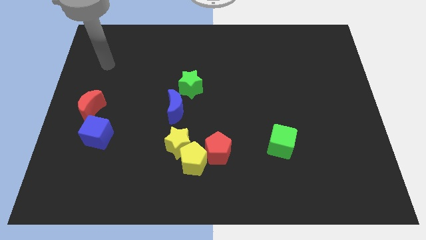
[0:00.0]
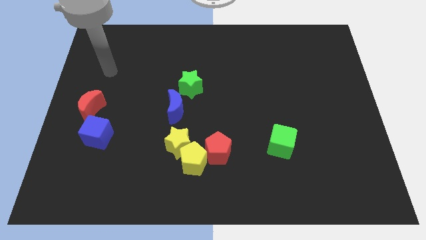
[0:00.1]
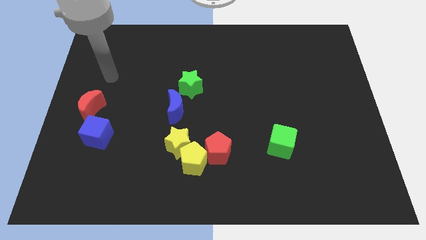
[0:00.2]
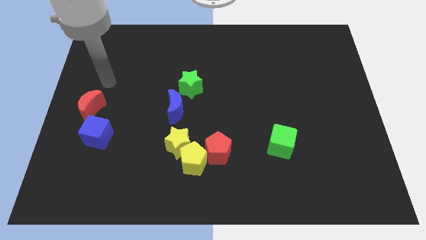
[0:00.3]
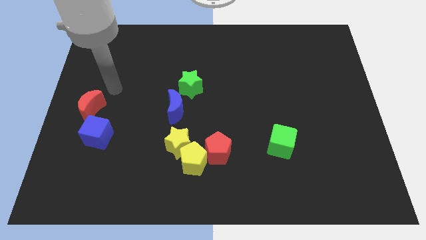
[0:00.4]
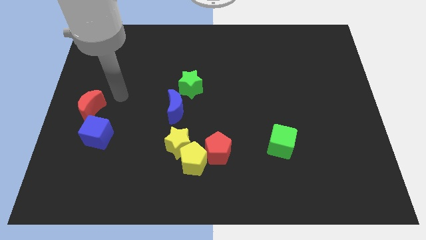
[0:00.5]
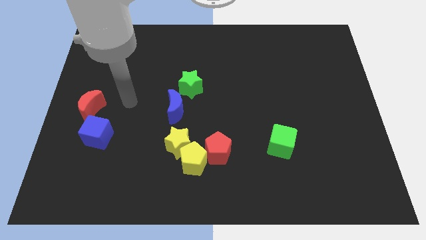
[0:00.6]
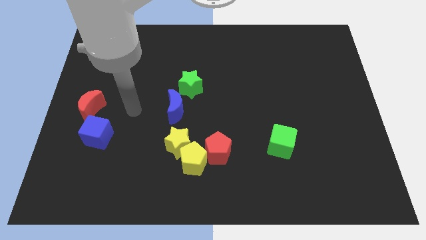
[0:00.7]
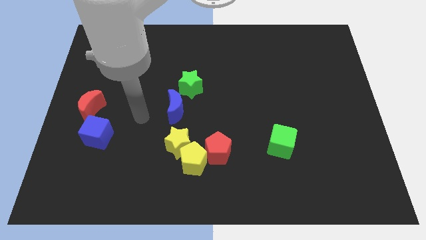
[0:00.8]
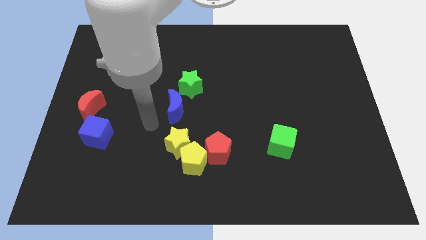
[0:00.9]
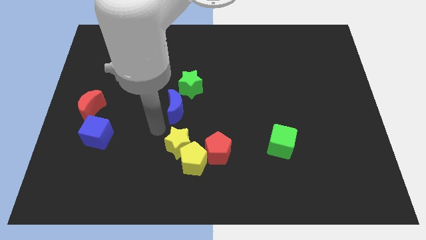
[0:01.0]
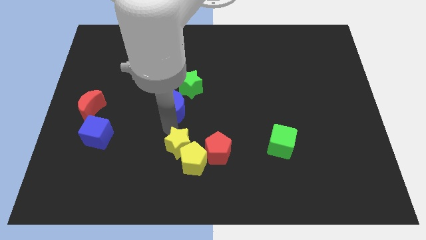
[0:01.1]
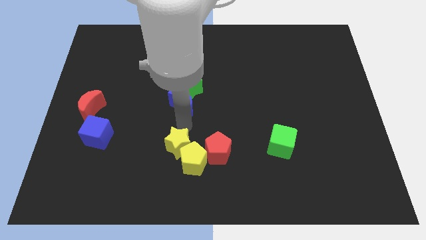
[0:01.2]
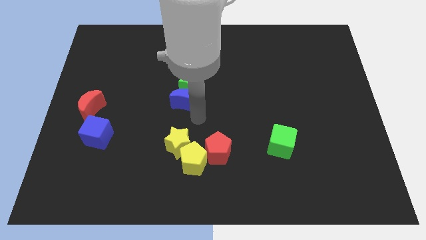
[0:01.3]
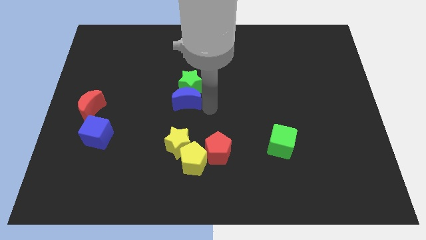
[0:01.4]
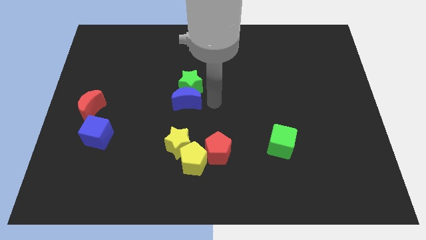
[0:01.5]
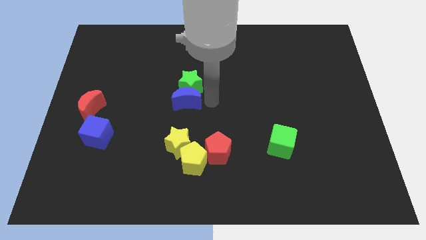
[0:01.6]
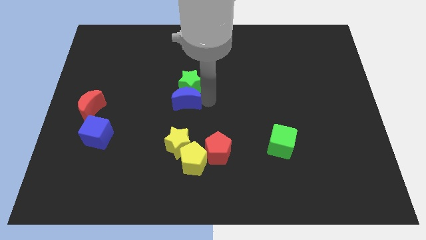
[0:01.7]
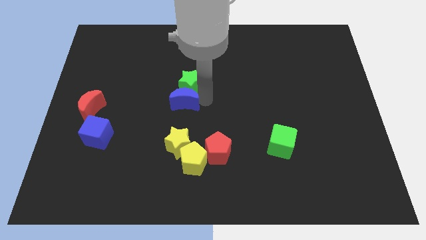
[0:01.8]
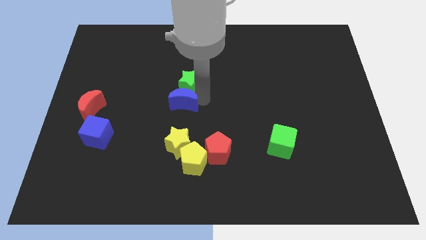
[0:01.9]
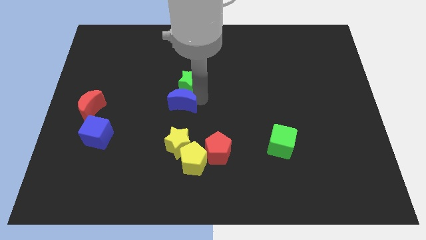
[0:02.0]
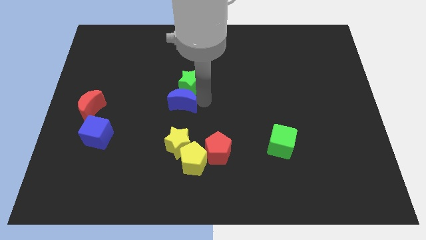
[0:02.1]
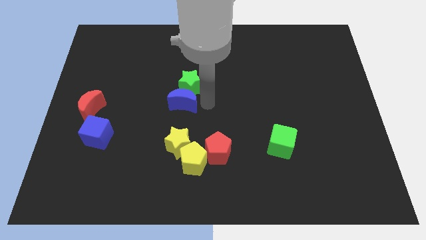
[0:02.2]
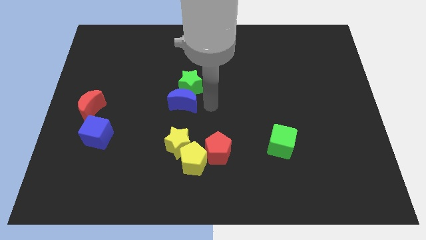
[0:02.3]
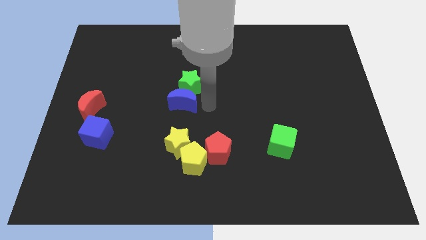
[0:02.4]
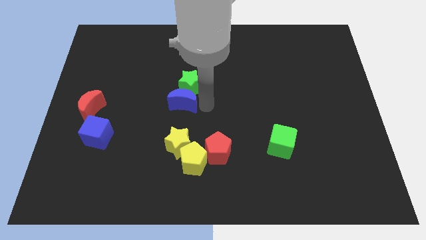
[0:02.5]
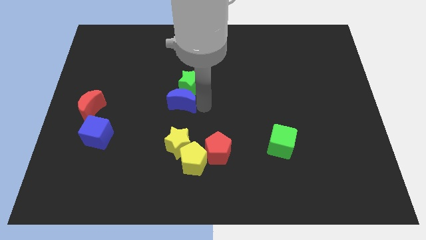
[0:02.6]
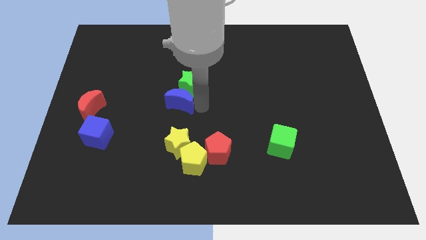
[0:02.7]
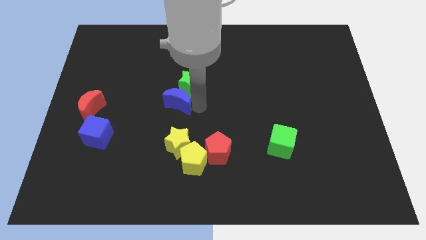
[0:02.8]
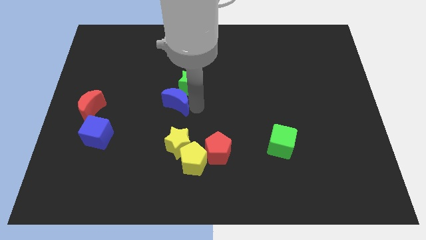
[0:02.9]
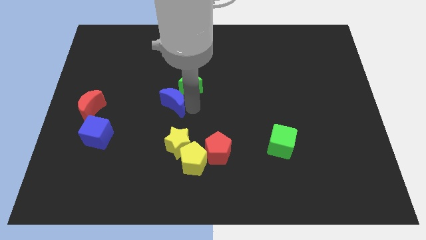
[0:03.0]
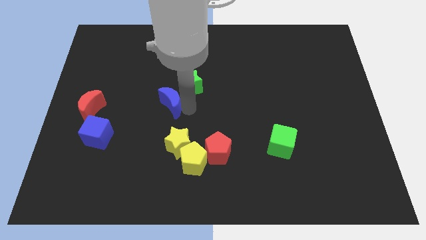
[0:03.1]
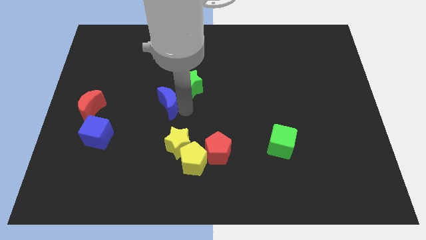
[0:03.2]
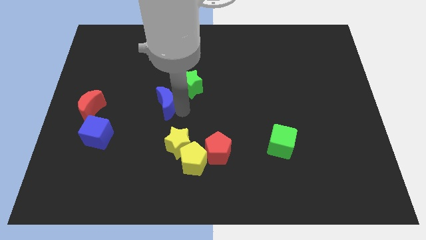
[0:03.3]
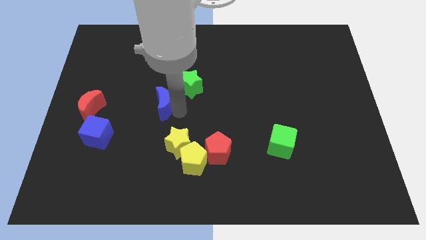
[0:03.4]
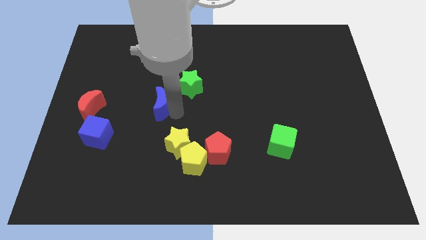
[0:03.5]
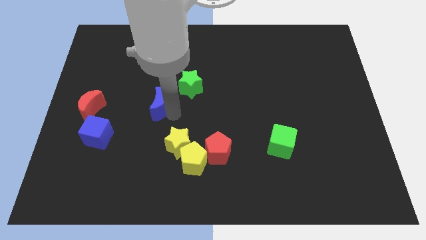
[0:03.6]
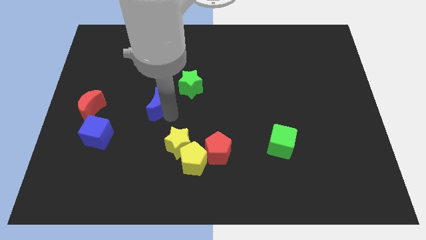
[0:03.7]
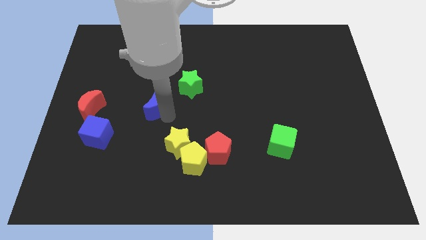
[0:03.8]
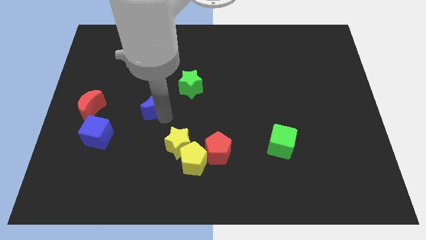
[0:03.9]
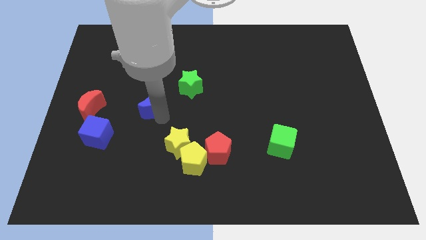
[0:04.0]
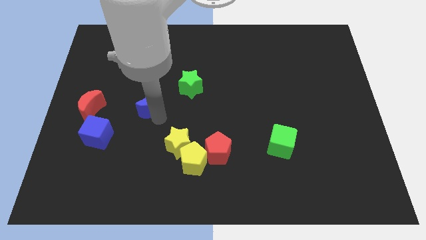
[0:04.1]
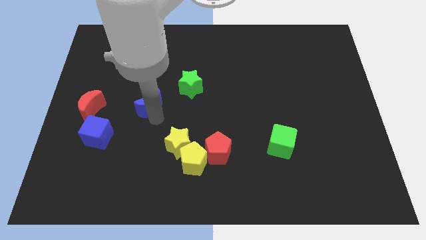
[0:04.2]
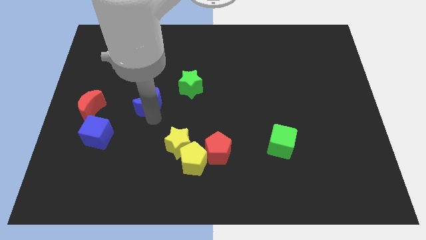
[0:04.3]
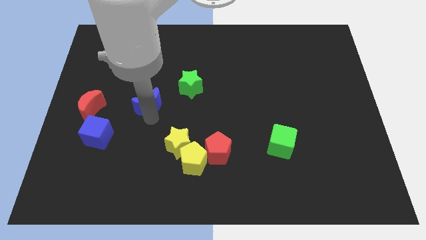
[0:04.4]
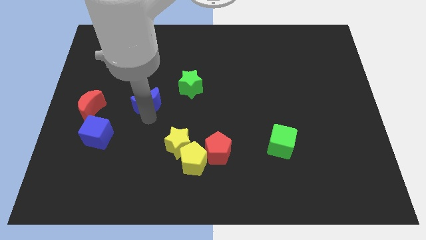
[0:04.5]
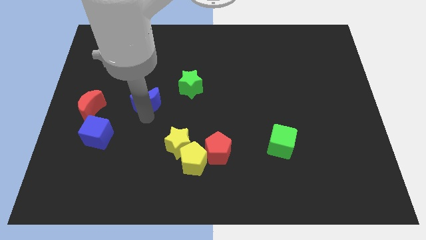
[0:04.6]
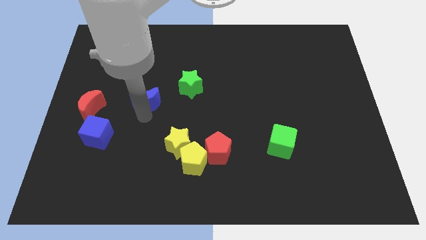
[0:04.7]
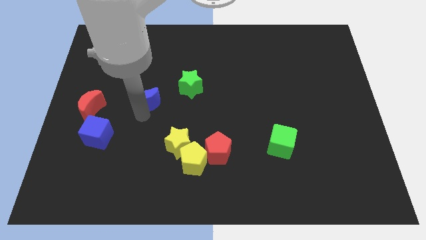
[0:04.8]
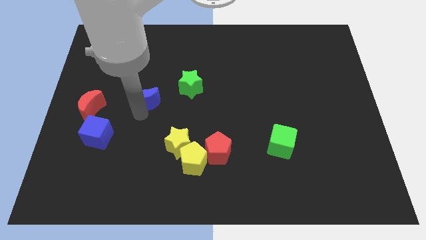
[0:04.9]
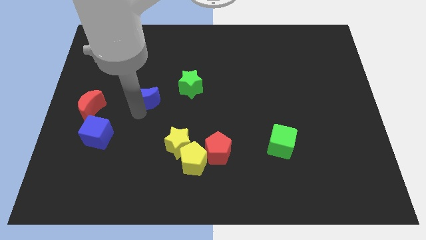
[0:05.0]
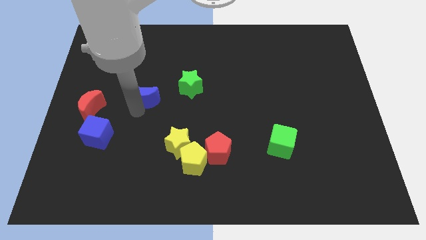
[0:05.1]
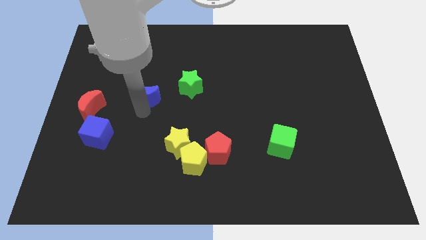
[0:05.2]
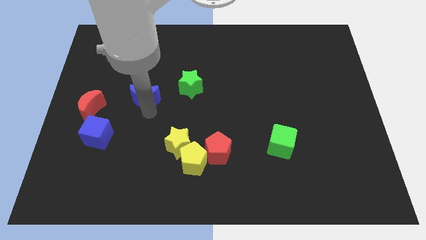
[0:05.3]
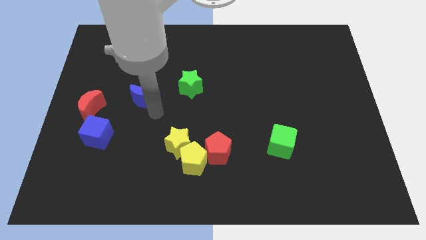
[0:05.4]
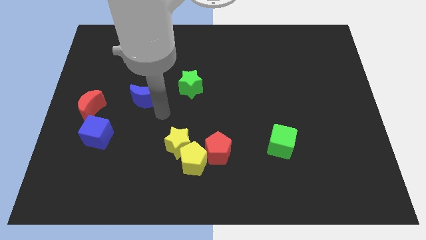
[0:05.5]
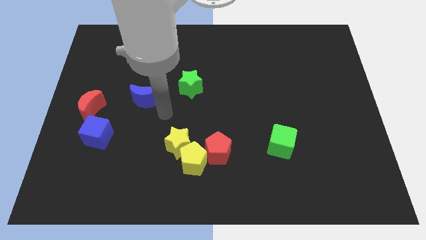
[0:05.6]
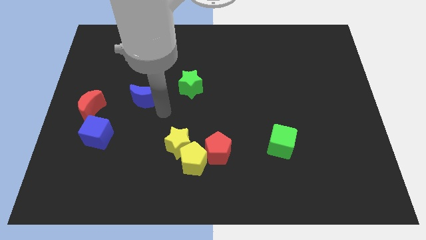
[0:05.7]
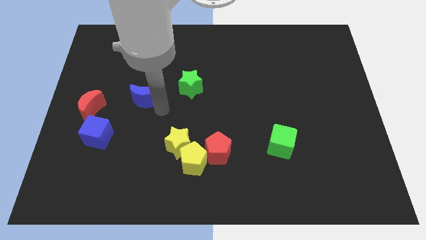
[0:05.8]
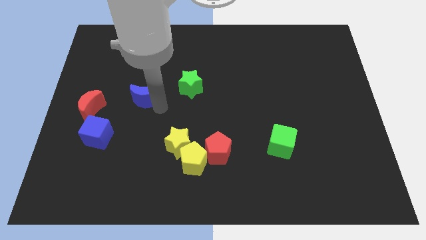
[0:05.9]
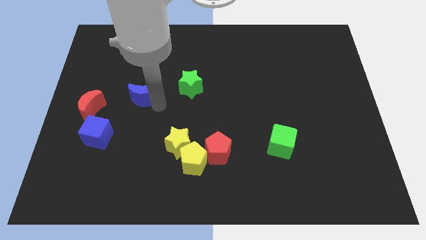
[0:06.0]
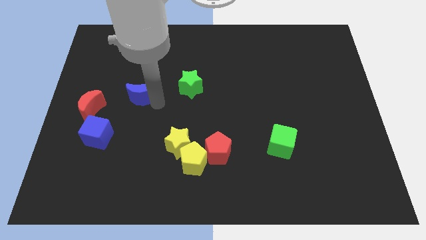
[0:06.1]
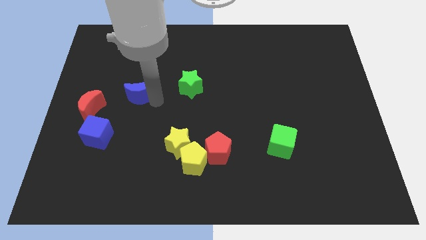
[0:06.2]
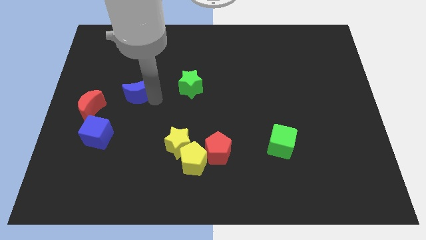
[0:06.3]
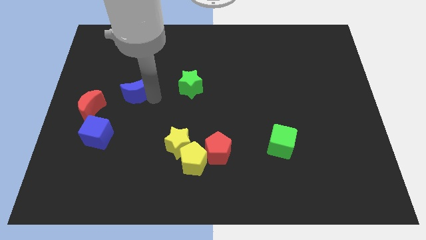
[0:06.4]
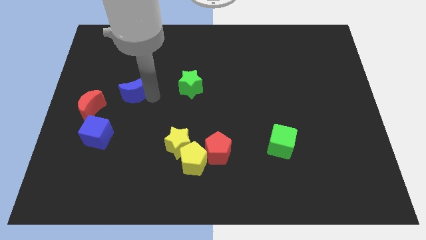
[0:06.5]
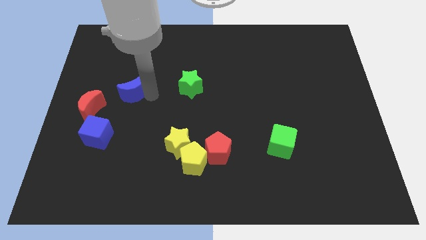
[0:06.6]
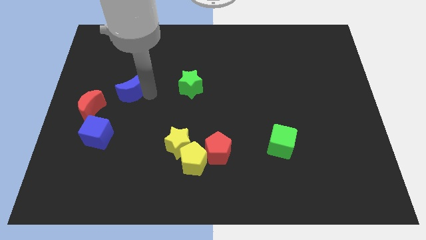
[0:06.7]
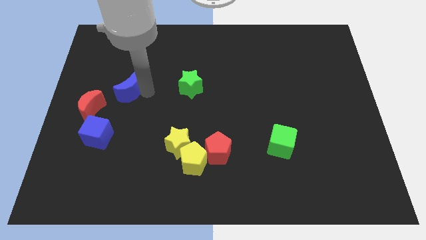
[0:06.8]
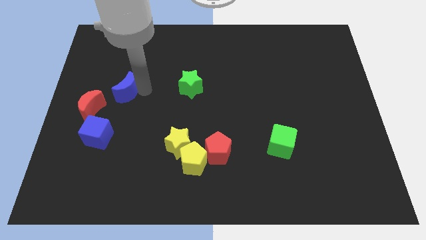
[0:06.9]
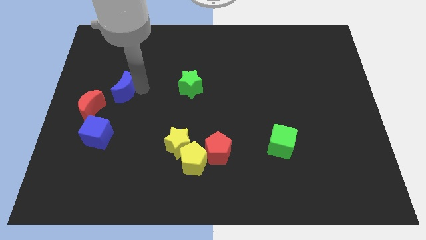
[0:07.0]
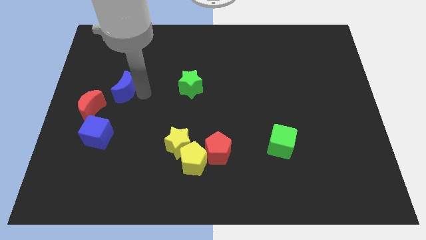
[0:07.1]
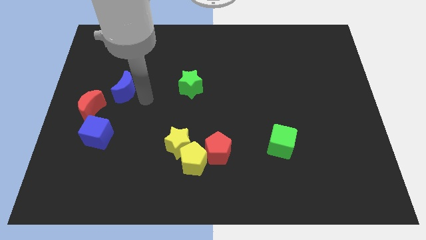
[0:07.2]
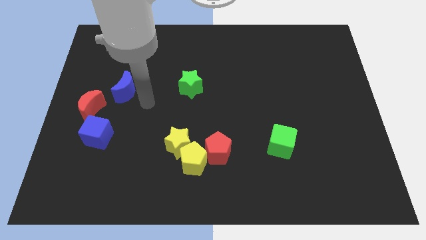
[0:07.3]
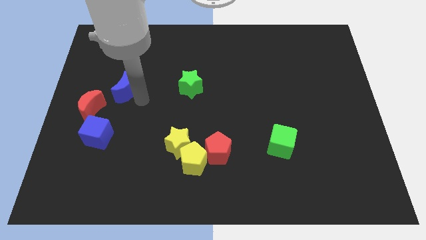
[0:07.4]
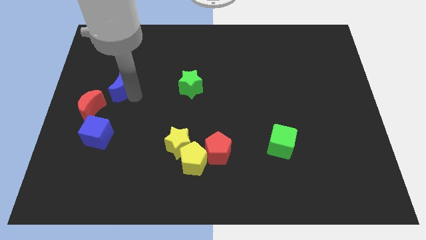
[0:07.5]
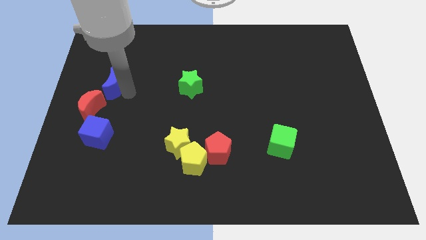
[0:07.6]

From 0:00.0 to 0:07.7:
put the blue moon to the top side of the red moon
